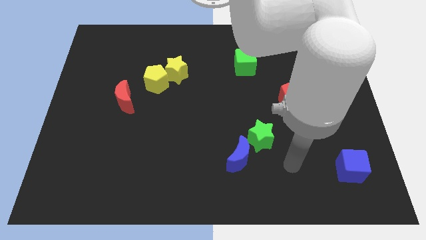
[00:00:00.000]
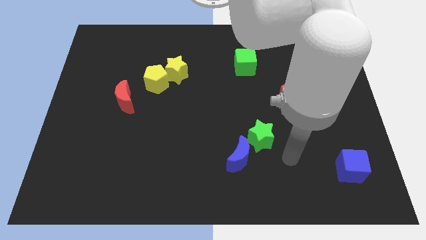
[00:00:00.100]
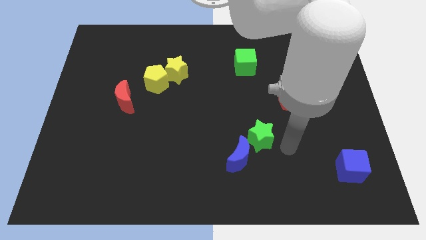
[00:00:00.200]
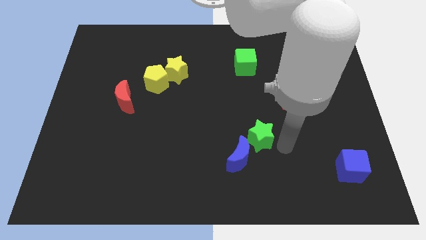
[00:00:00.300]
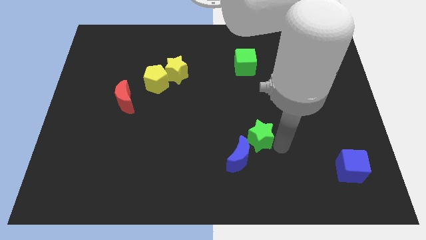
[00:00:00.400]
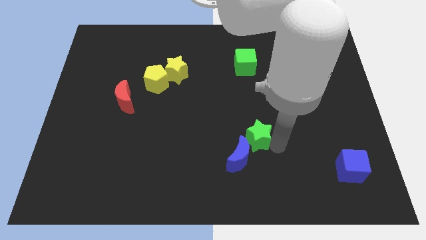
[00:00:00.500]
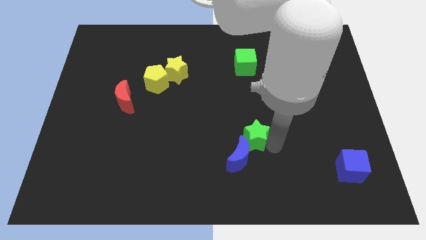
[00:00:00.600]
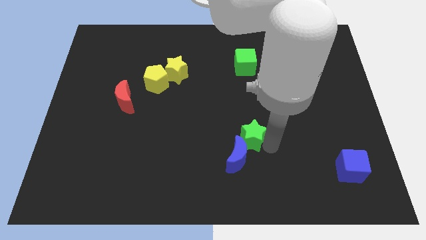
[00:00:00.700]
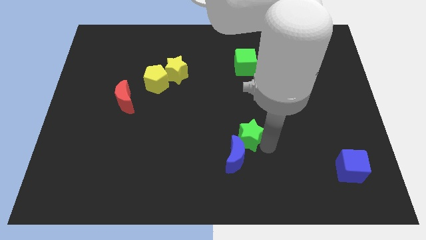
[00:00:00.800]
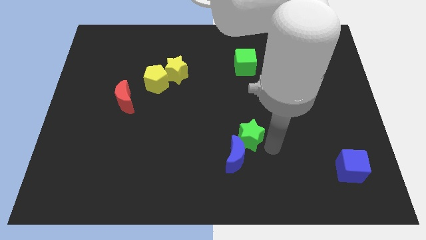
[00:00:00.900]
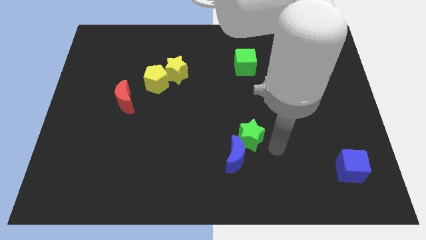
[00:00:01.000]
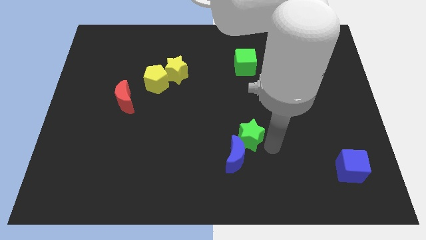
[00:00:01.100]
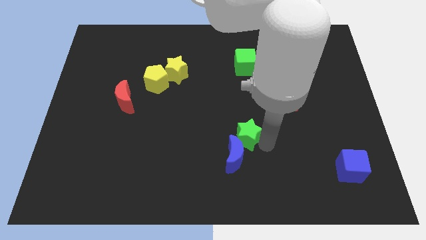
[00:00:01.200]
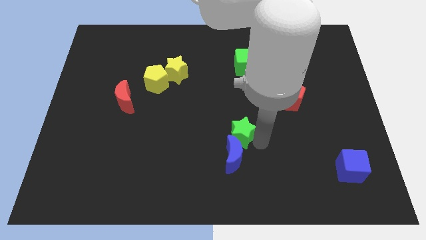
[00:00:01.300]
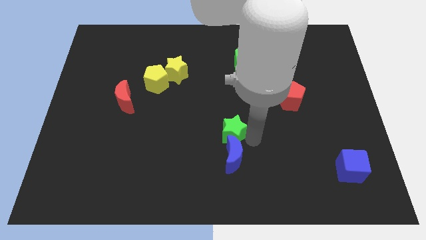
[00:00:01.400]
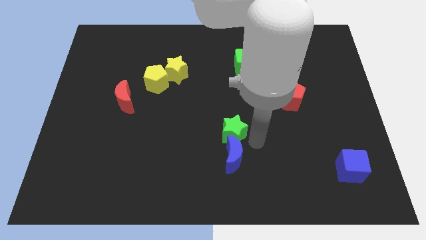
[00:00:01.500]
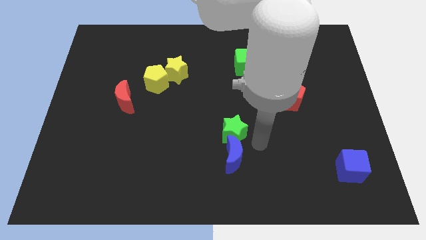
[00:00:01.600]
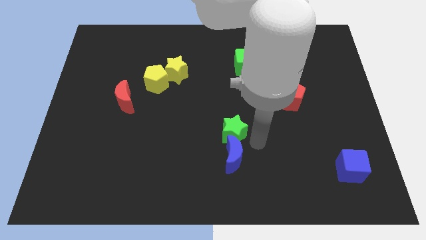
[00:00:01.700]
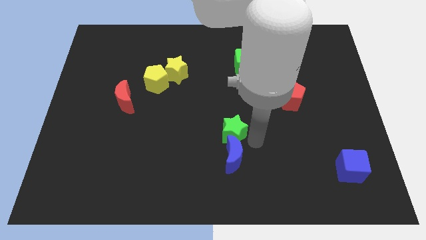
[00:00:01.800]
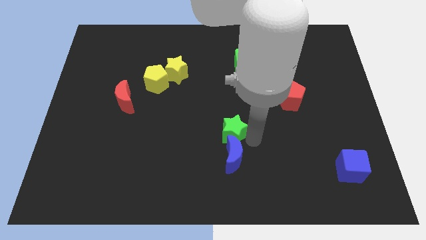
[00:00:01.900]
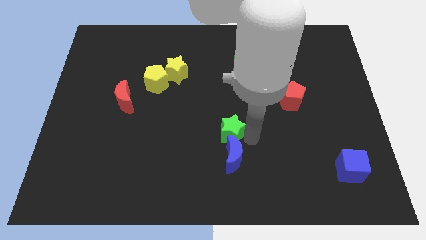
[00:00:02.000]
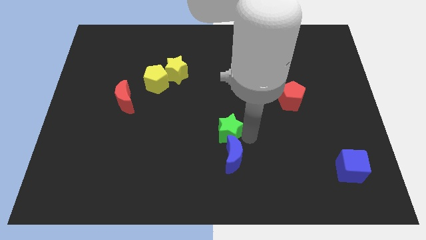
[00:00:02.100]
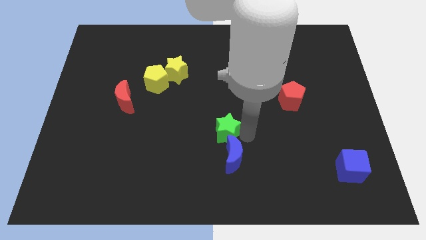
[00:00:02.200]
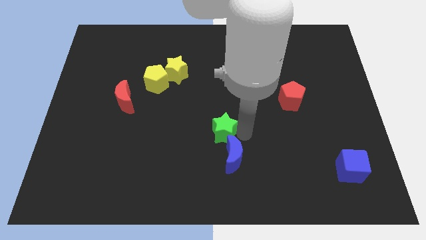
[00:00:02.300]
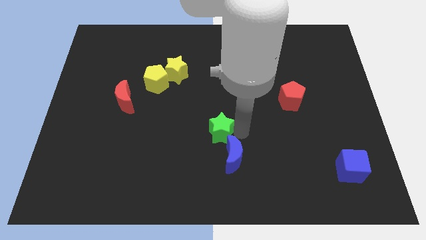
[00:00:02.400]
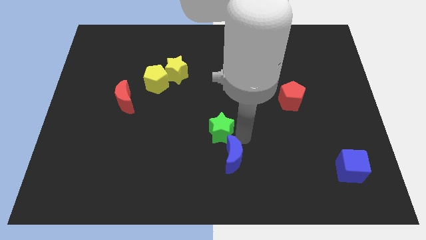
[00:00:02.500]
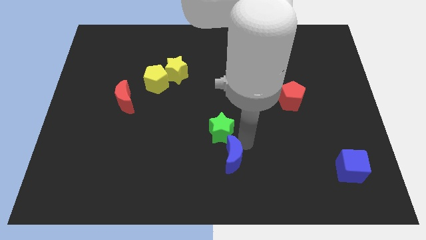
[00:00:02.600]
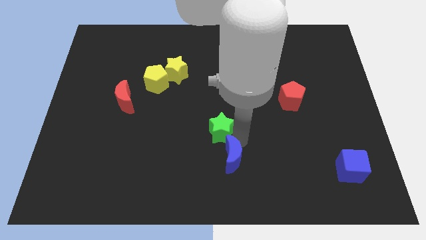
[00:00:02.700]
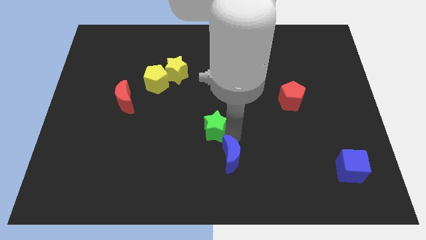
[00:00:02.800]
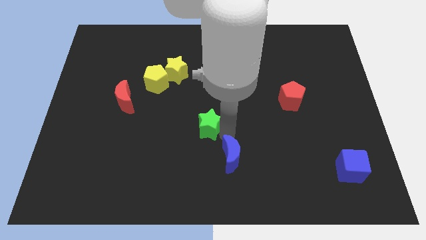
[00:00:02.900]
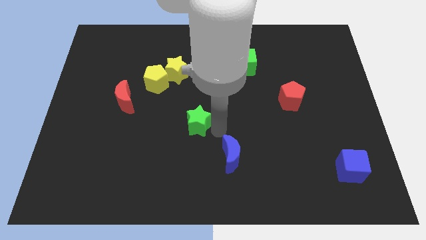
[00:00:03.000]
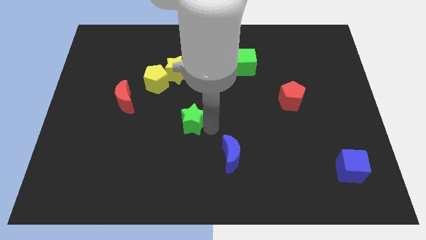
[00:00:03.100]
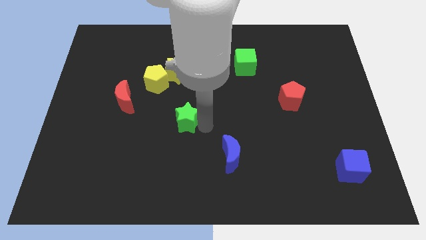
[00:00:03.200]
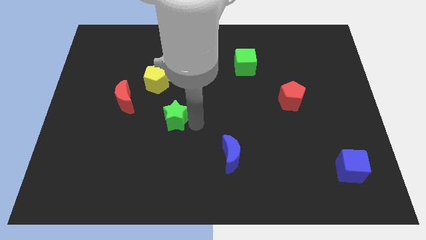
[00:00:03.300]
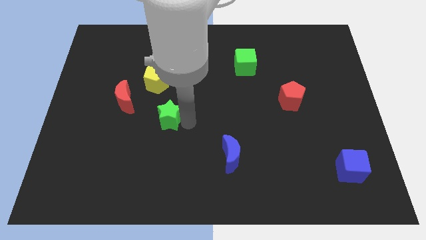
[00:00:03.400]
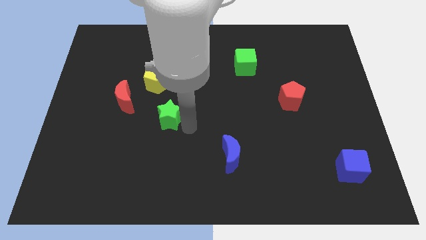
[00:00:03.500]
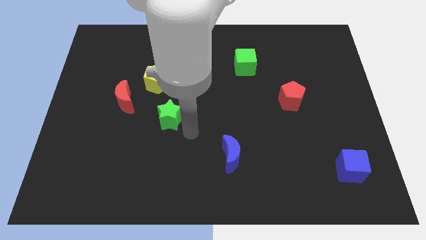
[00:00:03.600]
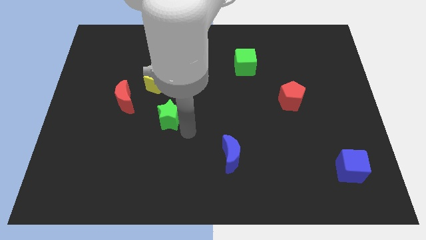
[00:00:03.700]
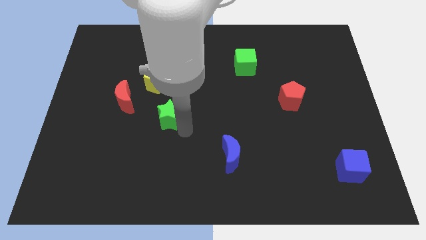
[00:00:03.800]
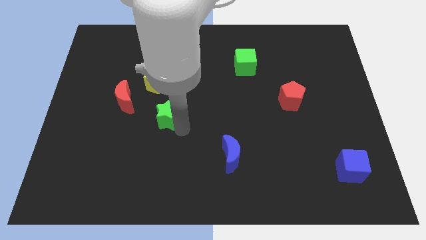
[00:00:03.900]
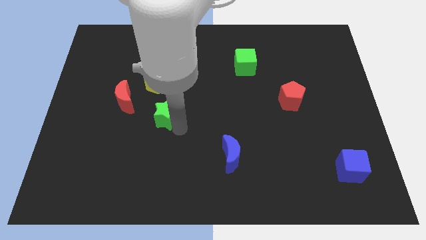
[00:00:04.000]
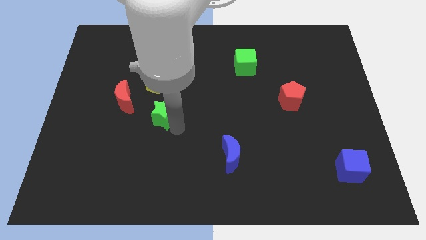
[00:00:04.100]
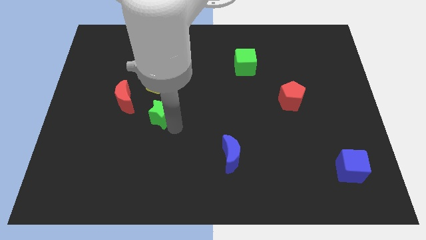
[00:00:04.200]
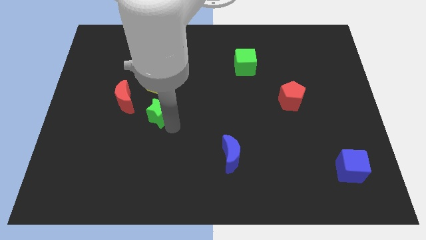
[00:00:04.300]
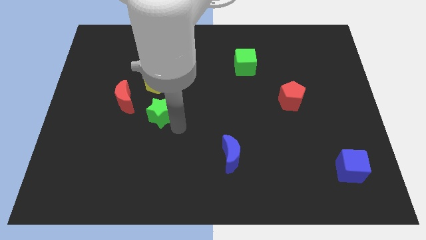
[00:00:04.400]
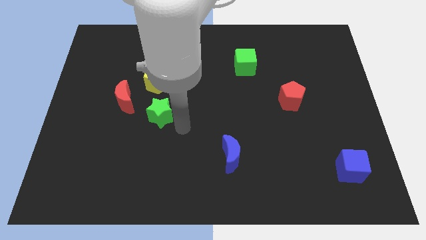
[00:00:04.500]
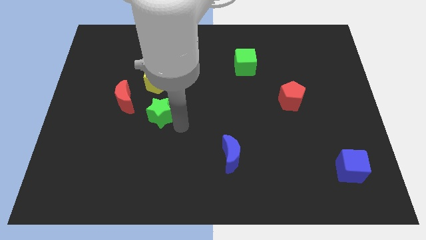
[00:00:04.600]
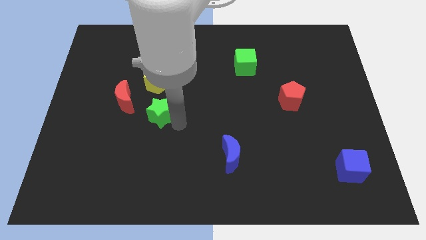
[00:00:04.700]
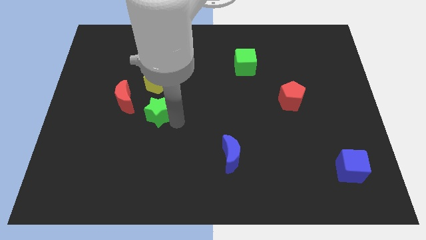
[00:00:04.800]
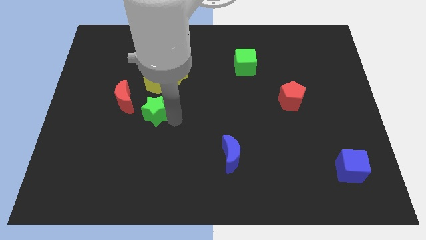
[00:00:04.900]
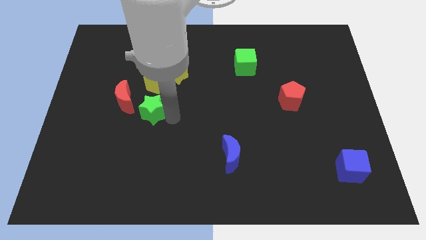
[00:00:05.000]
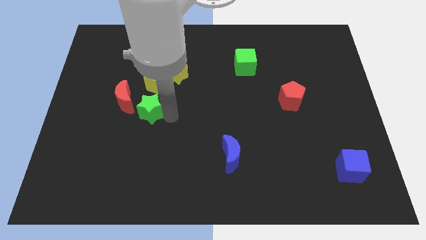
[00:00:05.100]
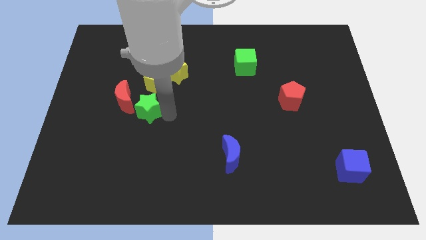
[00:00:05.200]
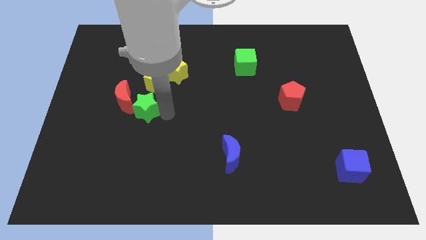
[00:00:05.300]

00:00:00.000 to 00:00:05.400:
put the green star next to the red moon

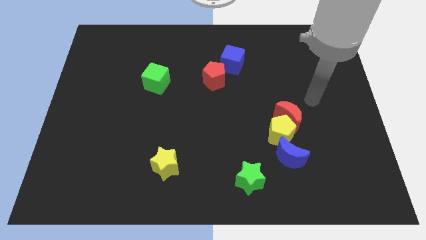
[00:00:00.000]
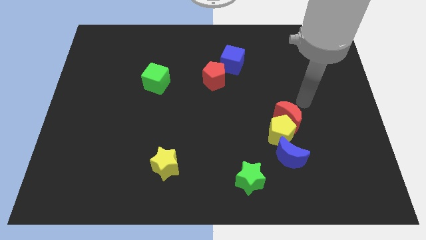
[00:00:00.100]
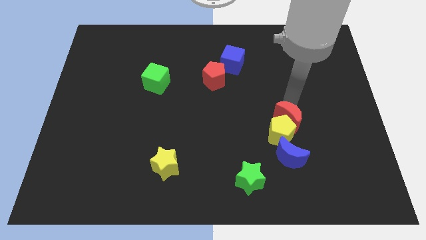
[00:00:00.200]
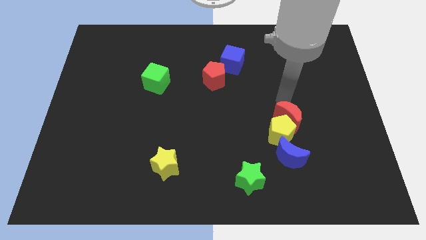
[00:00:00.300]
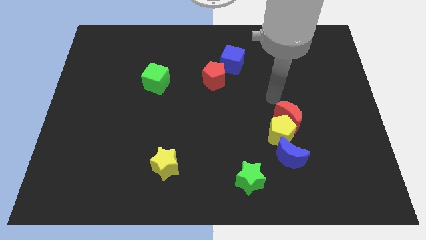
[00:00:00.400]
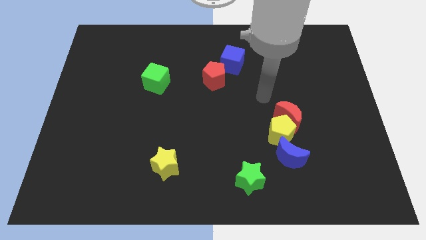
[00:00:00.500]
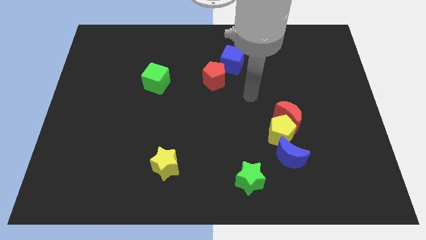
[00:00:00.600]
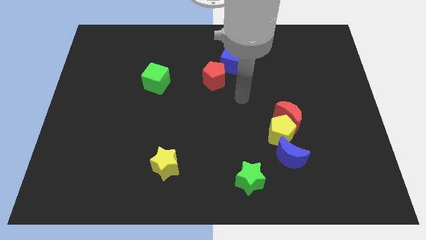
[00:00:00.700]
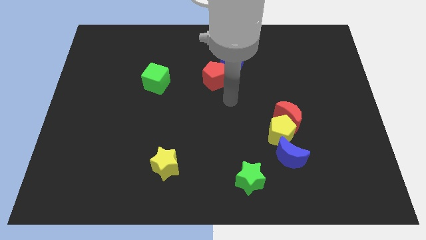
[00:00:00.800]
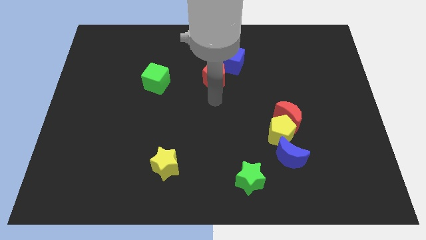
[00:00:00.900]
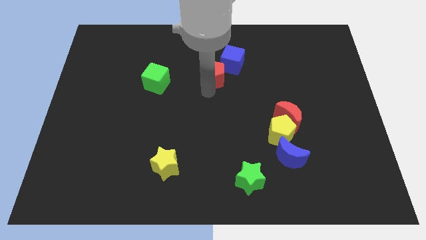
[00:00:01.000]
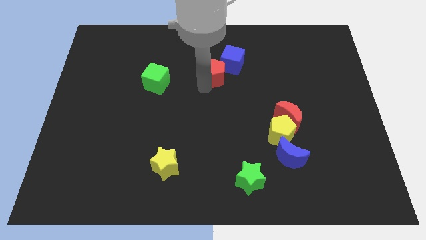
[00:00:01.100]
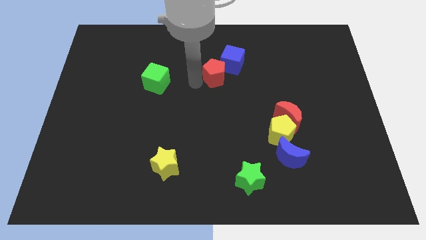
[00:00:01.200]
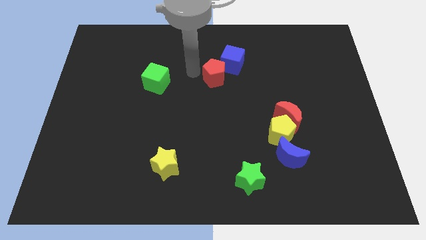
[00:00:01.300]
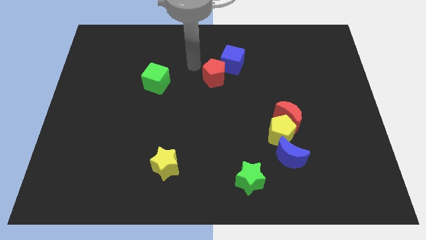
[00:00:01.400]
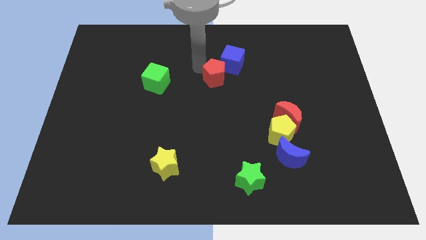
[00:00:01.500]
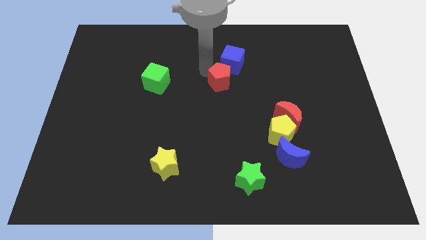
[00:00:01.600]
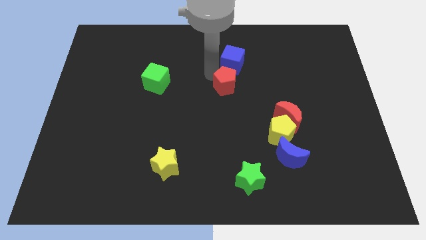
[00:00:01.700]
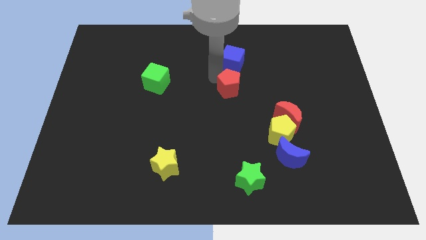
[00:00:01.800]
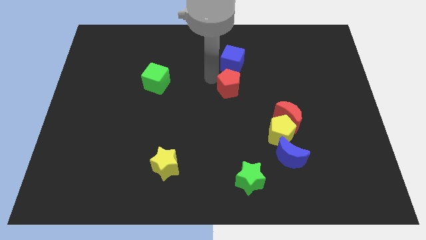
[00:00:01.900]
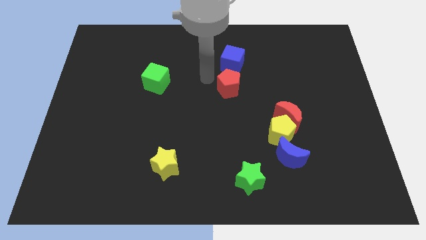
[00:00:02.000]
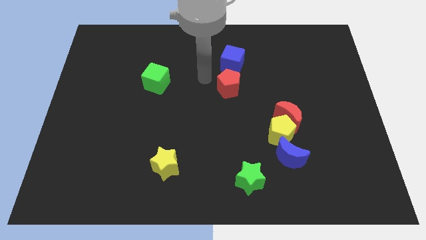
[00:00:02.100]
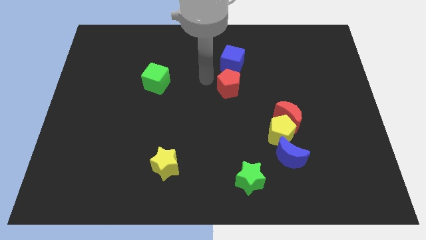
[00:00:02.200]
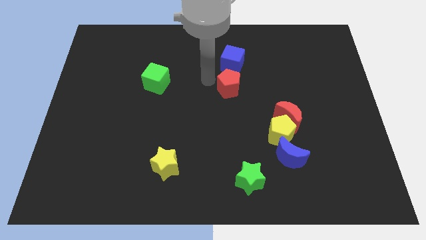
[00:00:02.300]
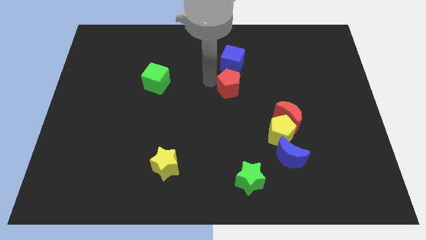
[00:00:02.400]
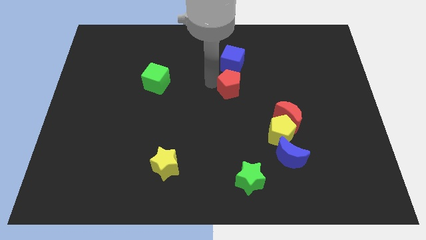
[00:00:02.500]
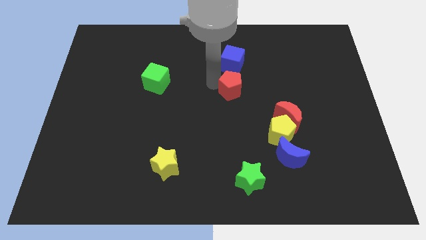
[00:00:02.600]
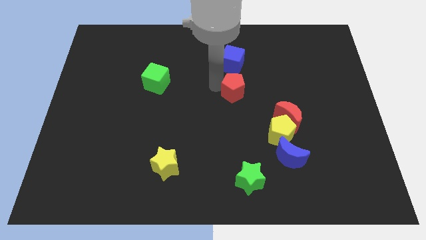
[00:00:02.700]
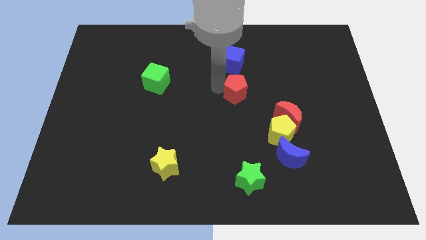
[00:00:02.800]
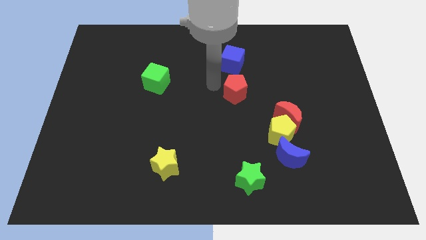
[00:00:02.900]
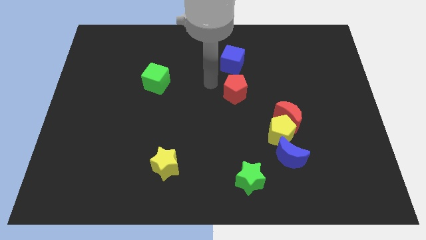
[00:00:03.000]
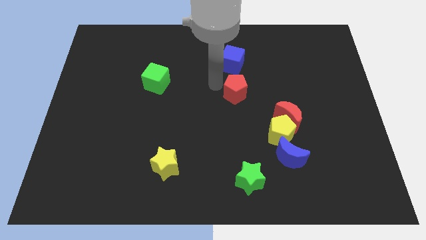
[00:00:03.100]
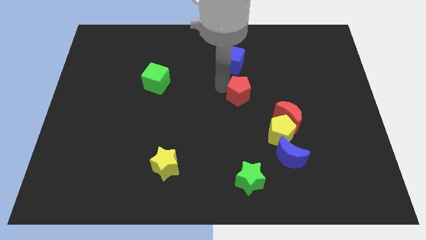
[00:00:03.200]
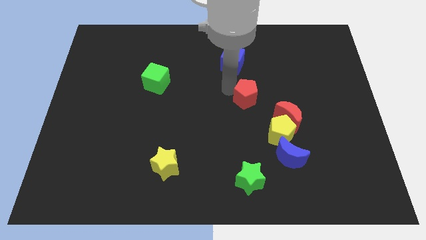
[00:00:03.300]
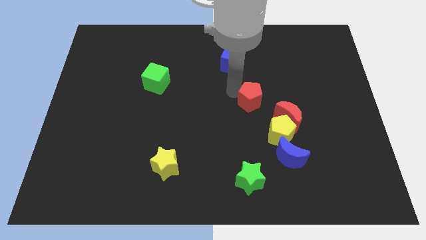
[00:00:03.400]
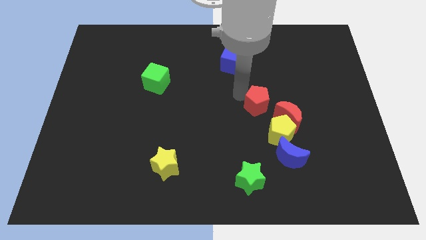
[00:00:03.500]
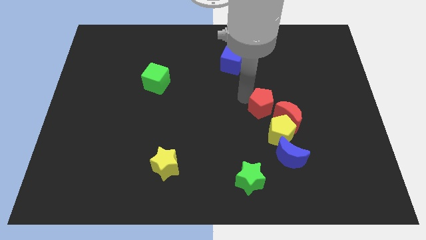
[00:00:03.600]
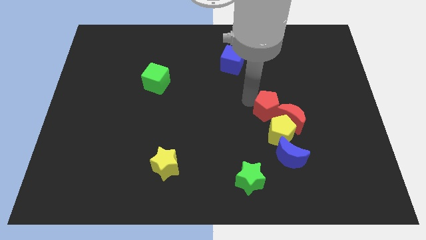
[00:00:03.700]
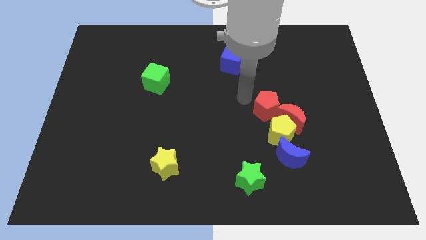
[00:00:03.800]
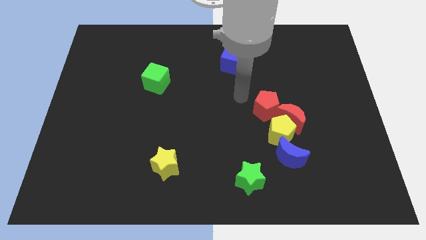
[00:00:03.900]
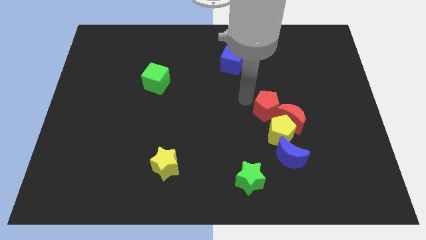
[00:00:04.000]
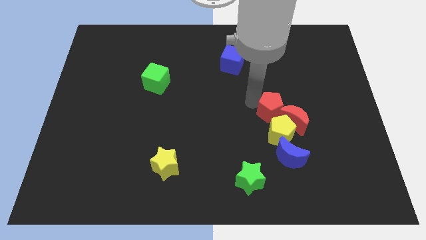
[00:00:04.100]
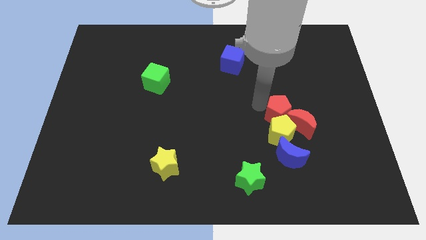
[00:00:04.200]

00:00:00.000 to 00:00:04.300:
slide the red pentagon close to the red moon
